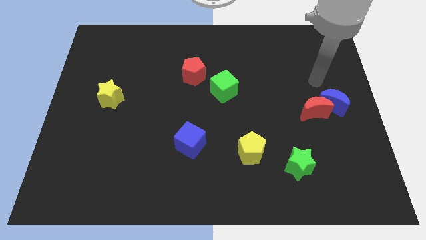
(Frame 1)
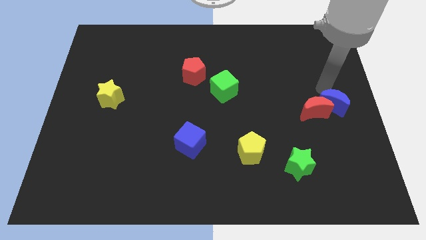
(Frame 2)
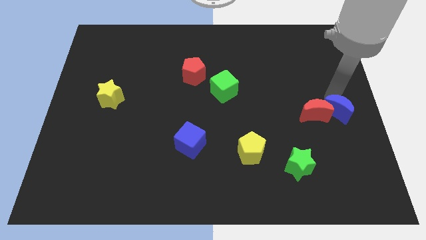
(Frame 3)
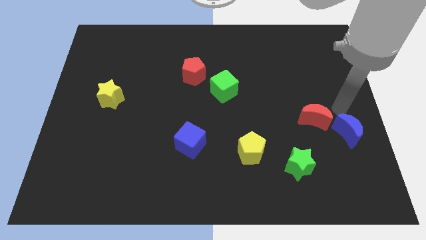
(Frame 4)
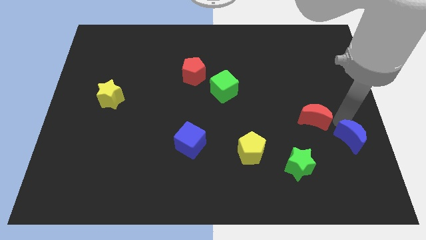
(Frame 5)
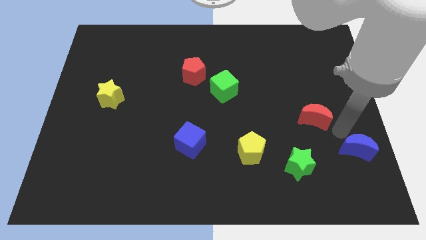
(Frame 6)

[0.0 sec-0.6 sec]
move the red moon away from the blue moon

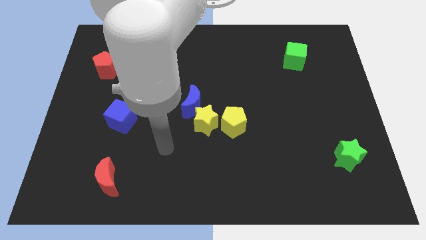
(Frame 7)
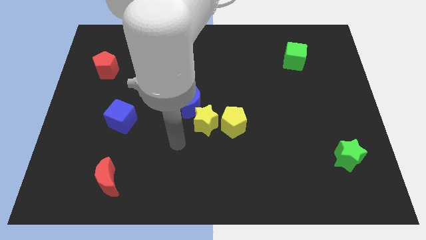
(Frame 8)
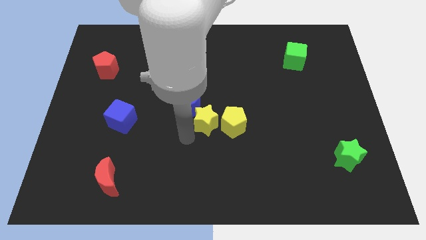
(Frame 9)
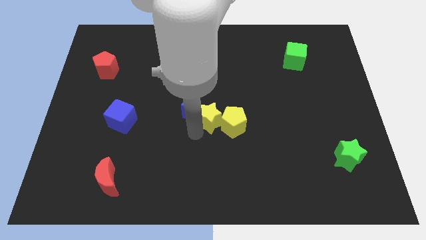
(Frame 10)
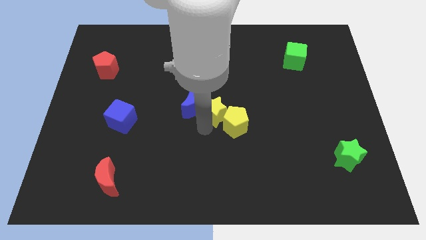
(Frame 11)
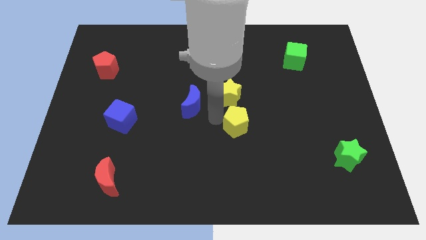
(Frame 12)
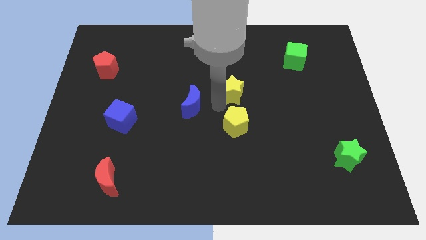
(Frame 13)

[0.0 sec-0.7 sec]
move the blue moon away from the yellow star

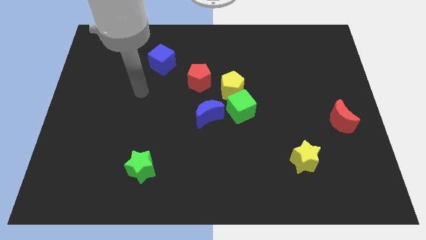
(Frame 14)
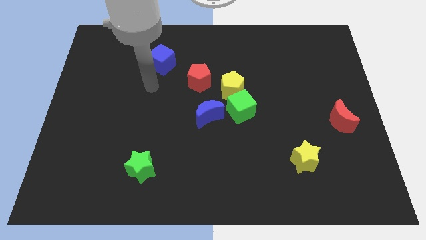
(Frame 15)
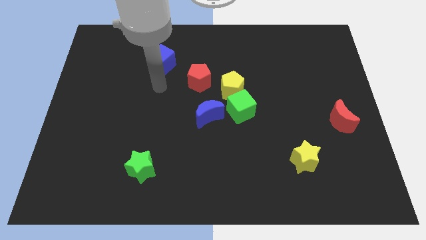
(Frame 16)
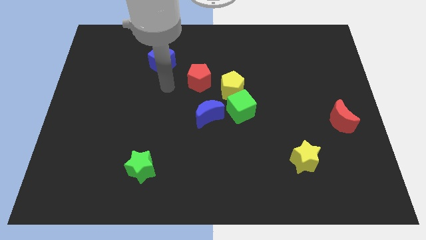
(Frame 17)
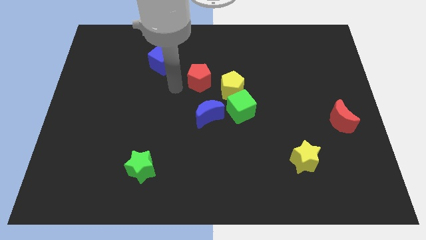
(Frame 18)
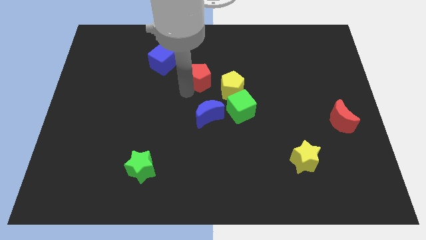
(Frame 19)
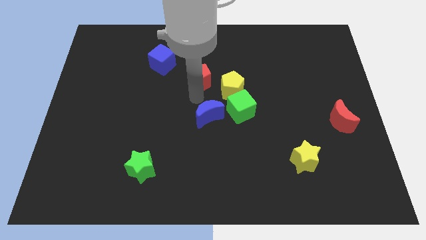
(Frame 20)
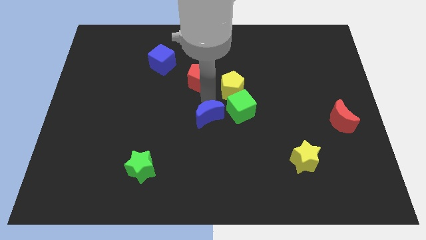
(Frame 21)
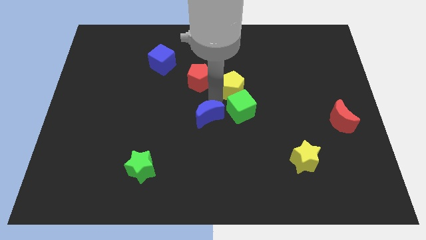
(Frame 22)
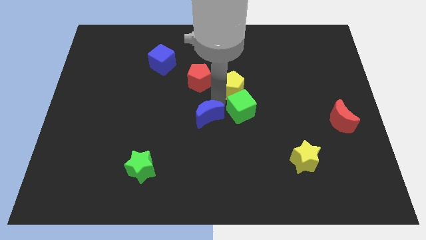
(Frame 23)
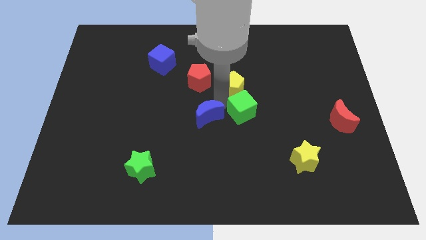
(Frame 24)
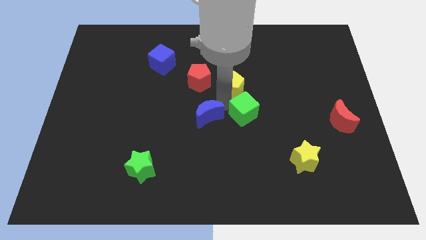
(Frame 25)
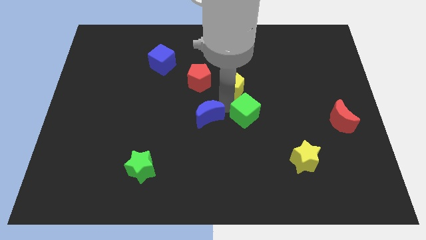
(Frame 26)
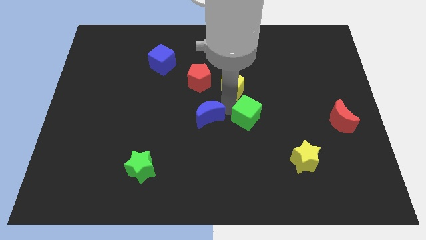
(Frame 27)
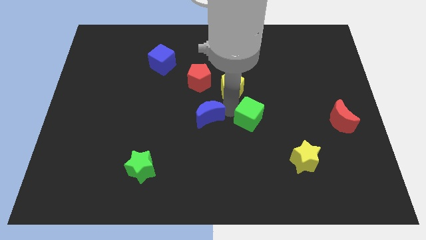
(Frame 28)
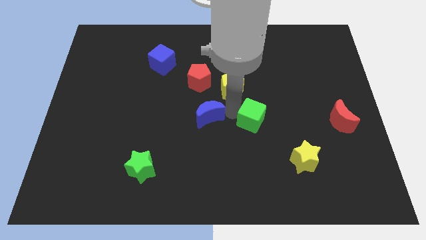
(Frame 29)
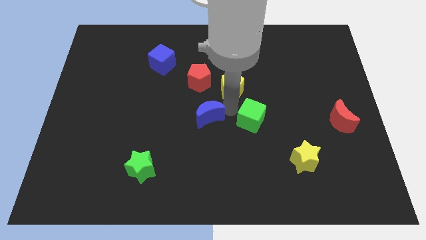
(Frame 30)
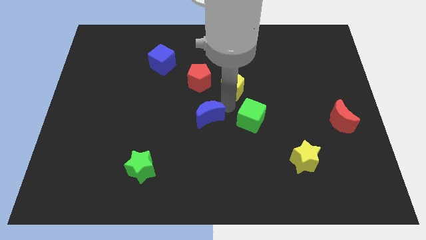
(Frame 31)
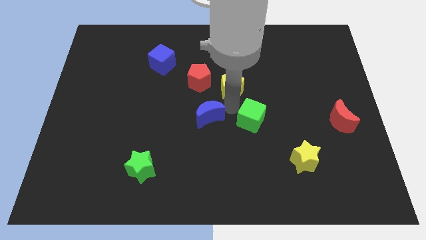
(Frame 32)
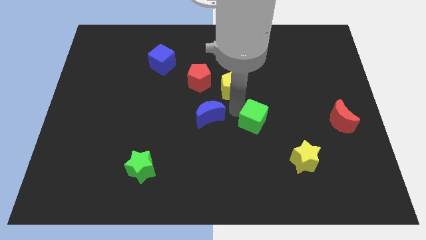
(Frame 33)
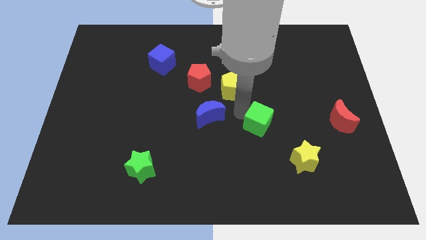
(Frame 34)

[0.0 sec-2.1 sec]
move the green cube away from the yellow pentagon and blue moon

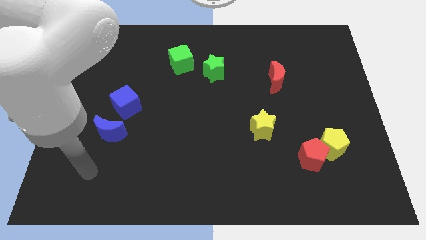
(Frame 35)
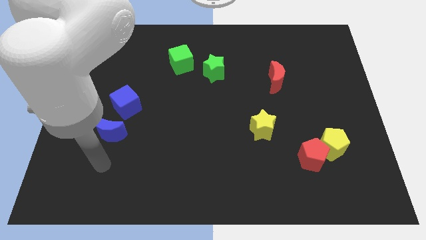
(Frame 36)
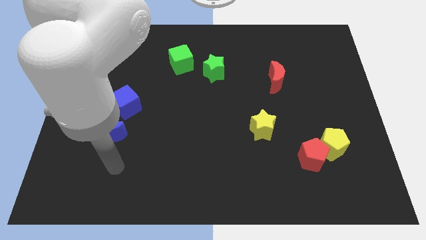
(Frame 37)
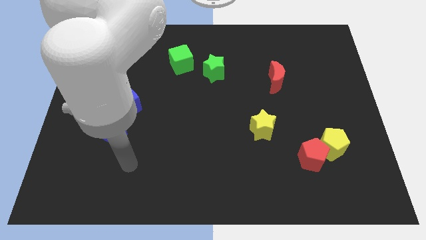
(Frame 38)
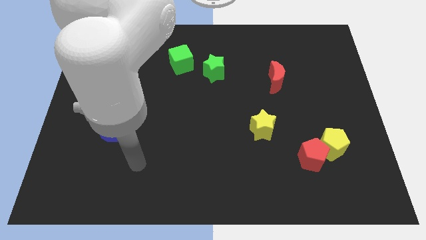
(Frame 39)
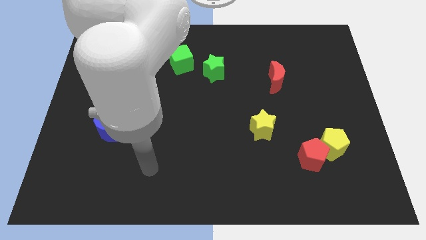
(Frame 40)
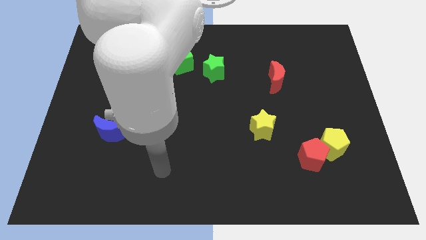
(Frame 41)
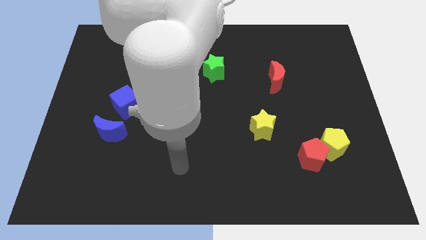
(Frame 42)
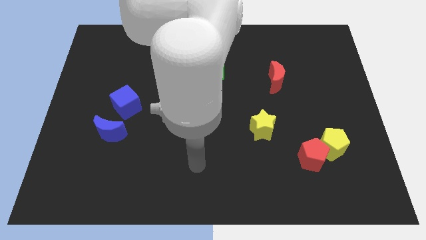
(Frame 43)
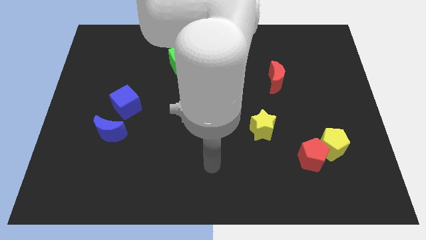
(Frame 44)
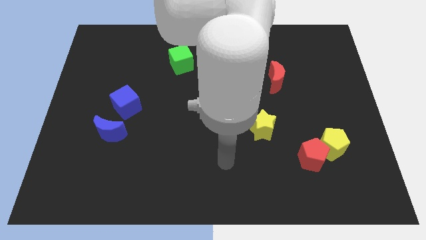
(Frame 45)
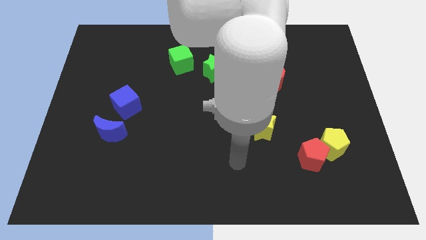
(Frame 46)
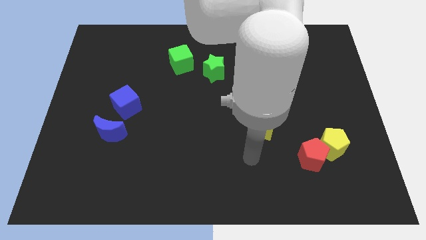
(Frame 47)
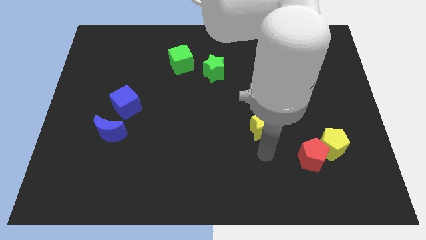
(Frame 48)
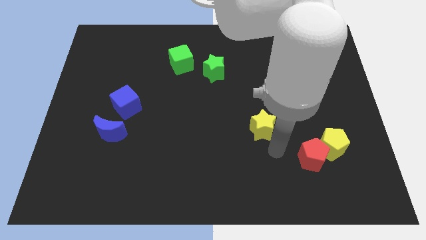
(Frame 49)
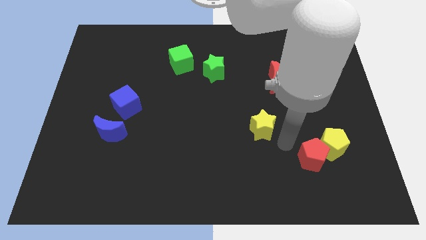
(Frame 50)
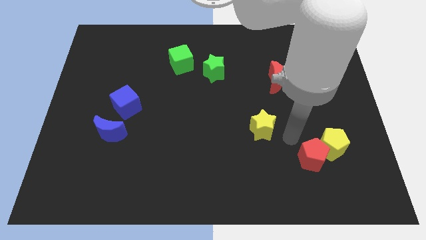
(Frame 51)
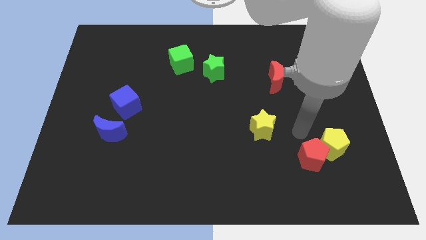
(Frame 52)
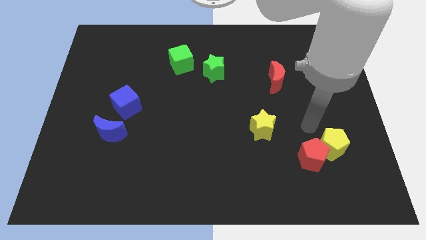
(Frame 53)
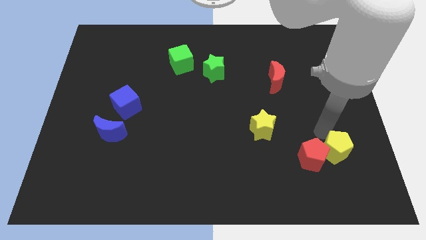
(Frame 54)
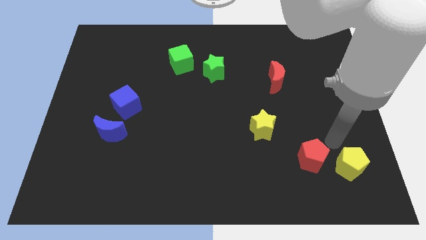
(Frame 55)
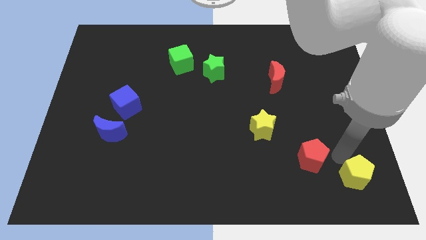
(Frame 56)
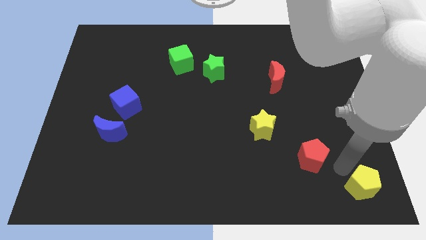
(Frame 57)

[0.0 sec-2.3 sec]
pull the red pentagon apart from the yellow pentagon

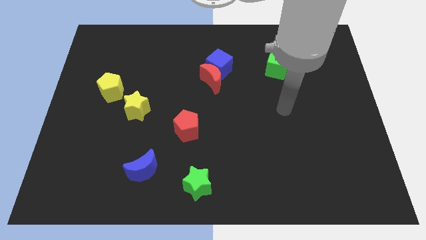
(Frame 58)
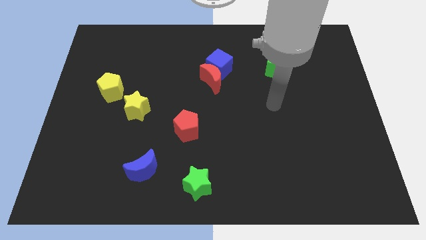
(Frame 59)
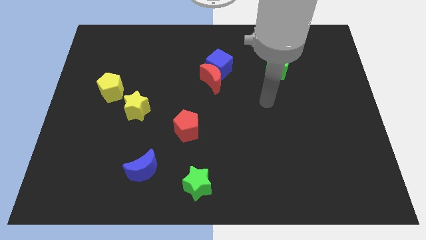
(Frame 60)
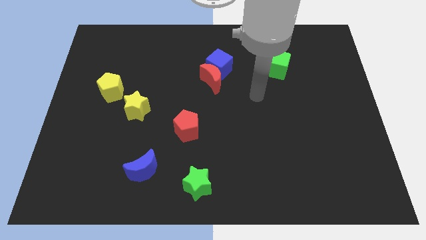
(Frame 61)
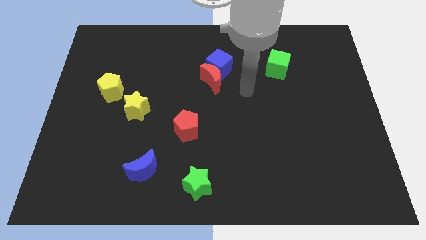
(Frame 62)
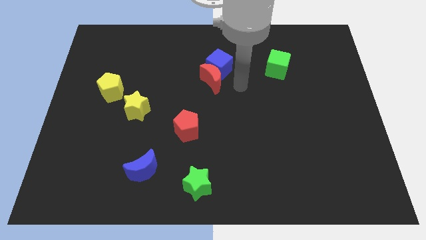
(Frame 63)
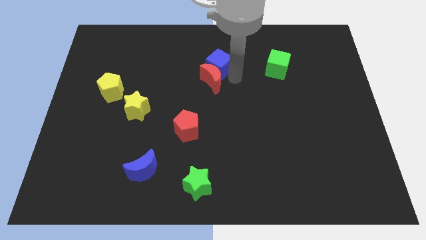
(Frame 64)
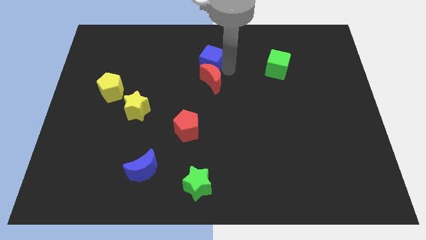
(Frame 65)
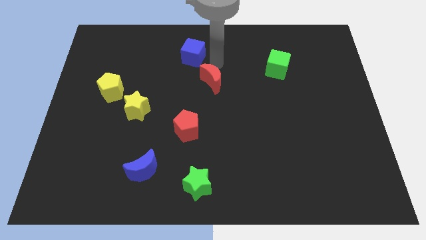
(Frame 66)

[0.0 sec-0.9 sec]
pull the red moon apart from the blue cube

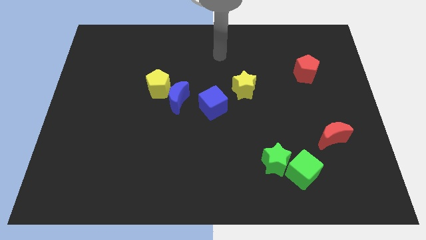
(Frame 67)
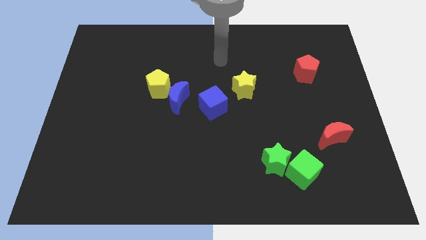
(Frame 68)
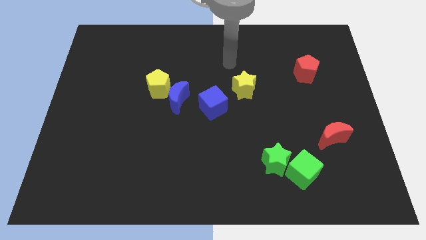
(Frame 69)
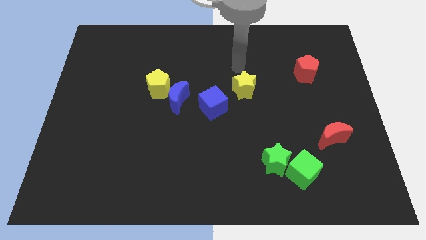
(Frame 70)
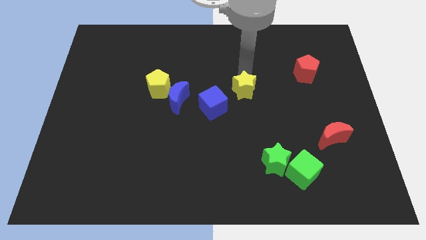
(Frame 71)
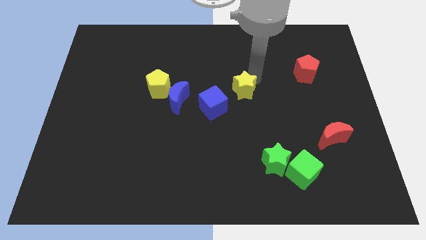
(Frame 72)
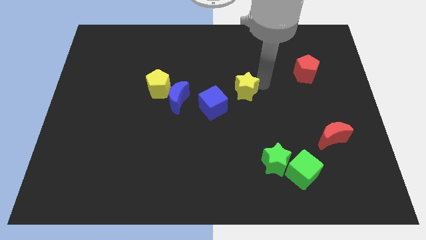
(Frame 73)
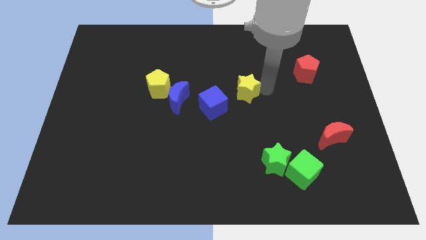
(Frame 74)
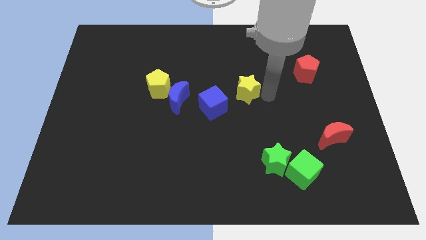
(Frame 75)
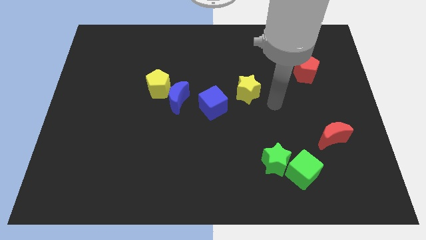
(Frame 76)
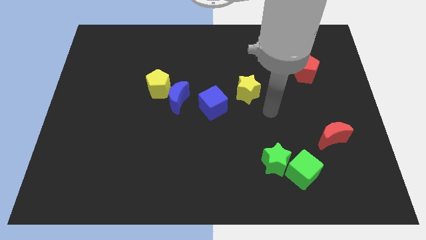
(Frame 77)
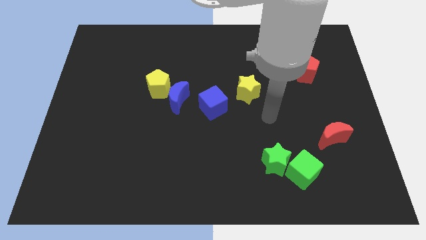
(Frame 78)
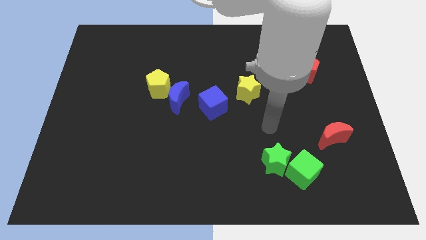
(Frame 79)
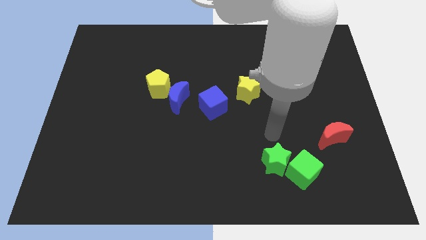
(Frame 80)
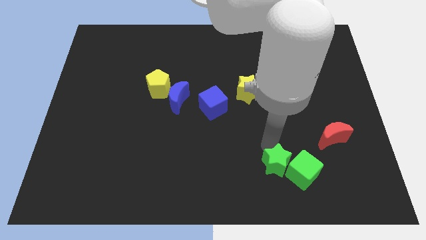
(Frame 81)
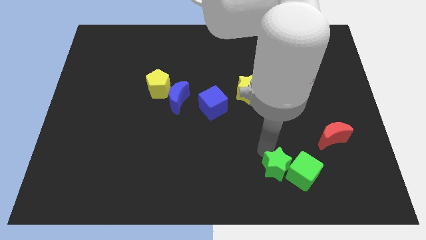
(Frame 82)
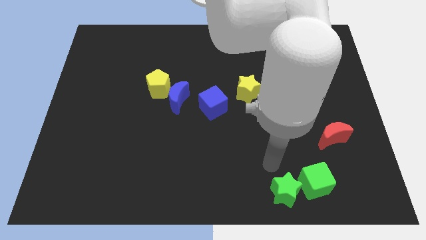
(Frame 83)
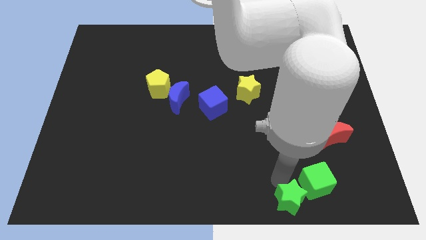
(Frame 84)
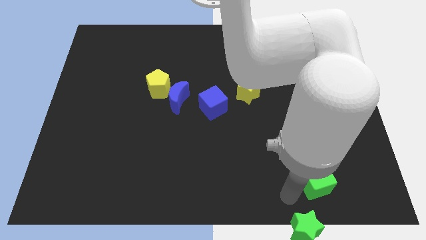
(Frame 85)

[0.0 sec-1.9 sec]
separate the green cube from the green star

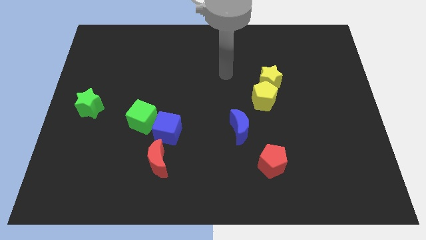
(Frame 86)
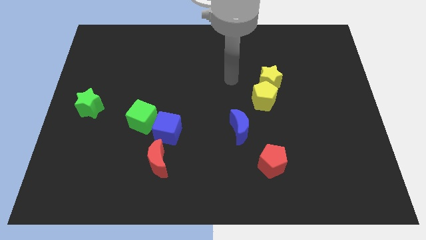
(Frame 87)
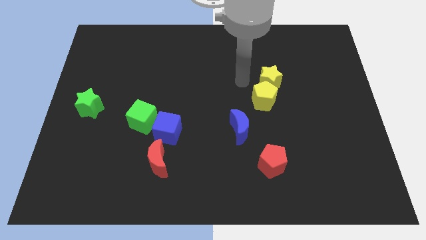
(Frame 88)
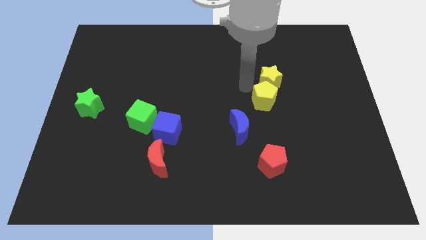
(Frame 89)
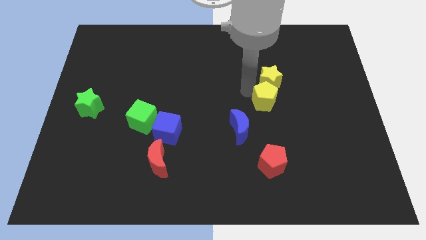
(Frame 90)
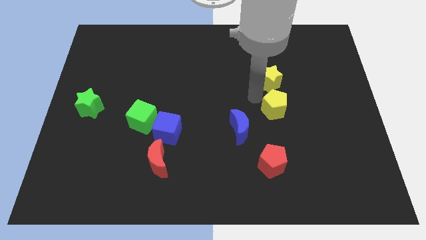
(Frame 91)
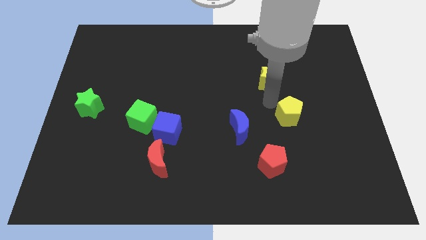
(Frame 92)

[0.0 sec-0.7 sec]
move the yellow star away from the yellow pentagon

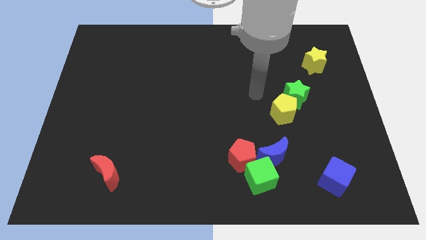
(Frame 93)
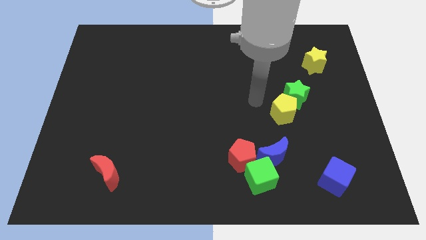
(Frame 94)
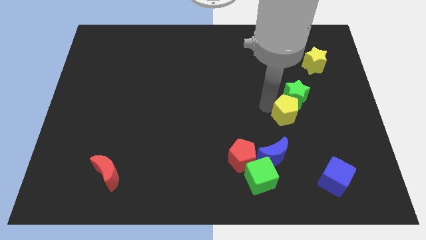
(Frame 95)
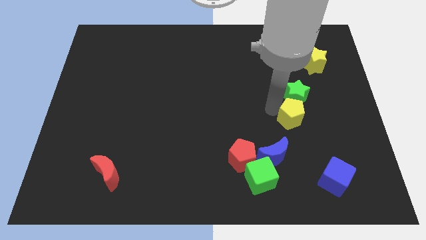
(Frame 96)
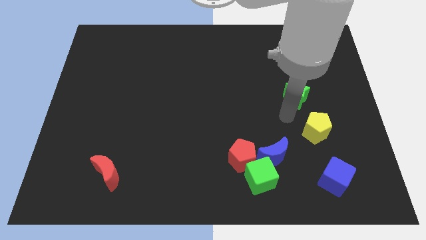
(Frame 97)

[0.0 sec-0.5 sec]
move the green star away from the yellow pentagon
